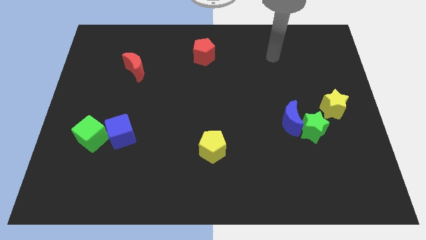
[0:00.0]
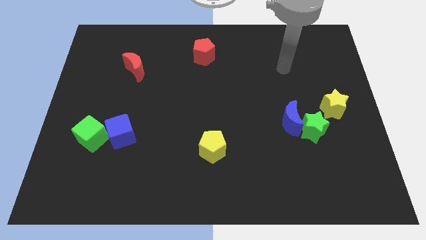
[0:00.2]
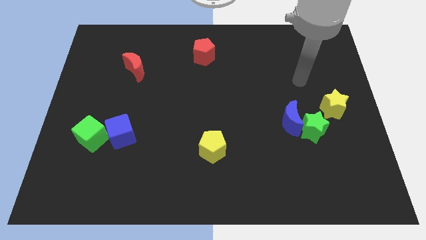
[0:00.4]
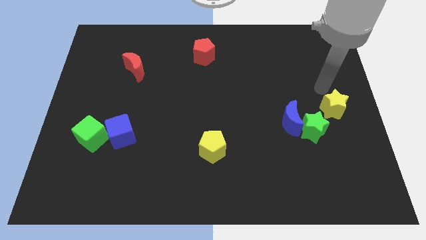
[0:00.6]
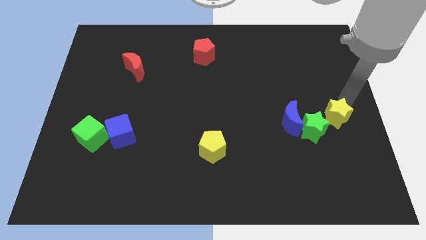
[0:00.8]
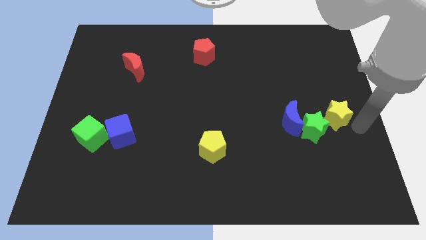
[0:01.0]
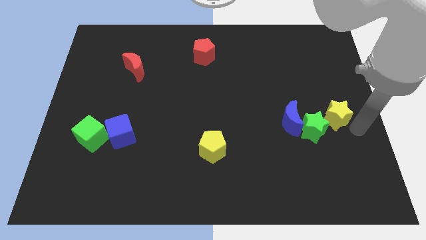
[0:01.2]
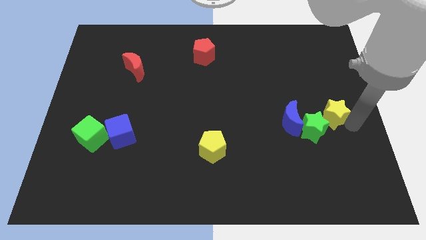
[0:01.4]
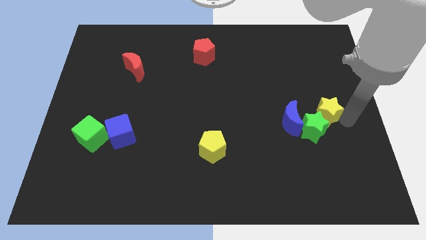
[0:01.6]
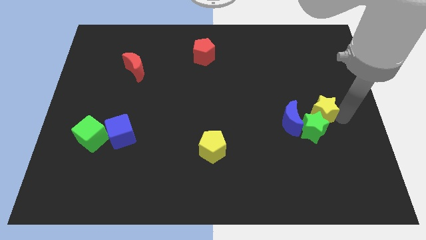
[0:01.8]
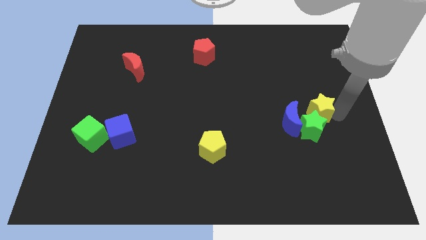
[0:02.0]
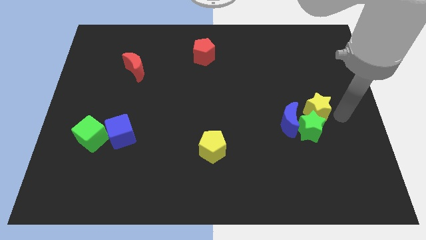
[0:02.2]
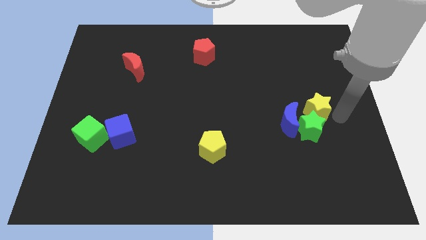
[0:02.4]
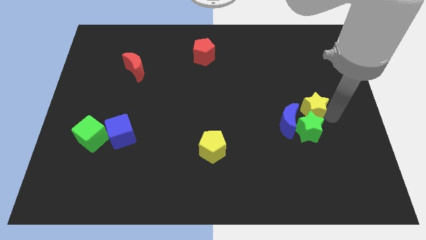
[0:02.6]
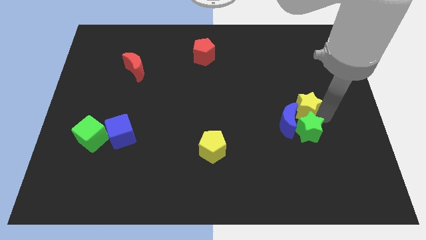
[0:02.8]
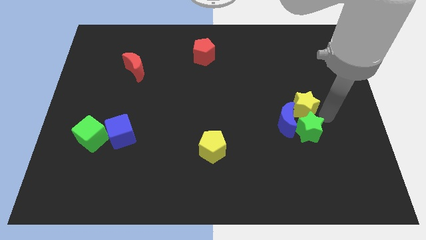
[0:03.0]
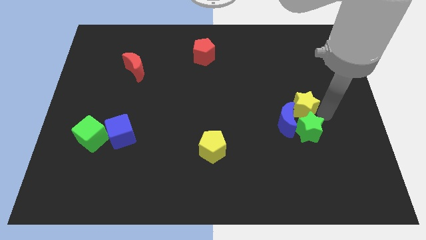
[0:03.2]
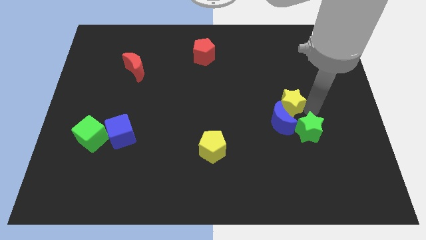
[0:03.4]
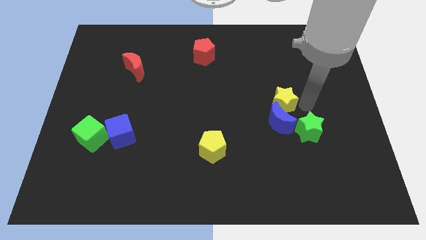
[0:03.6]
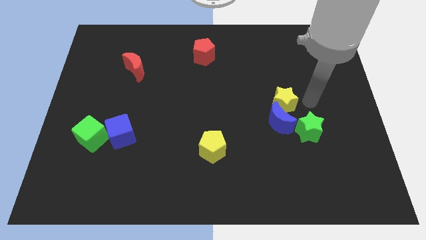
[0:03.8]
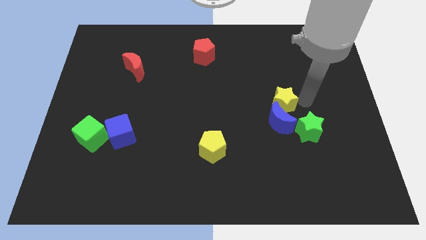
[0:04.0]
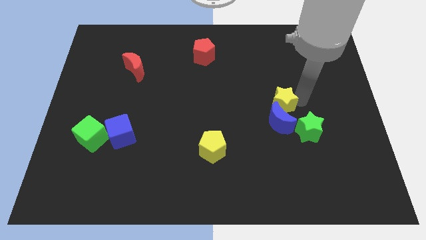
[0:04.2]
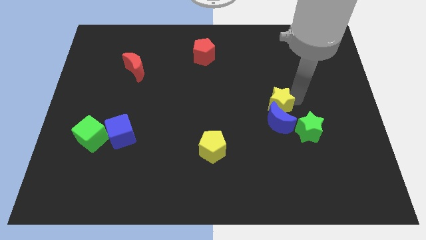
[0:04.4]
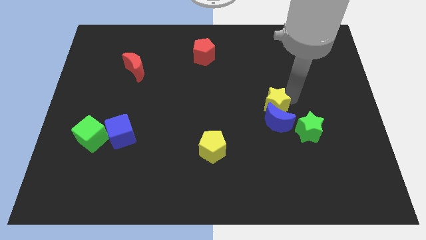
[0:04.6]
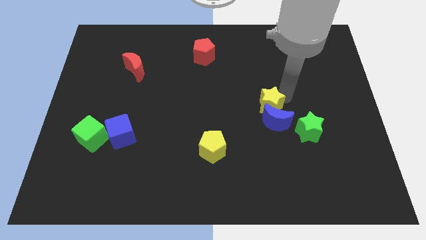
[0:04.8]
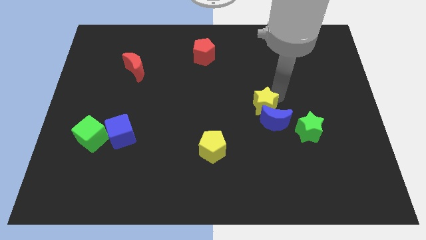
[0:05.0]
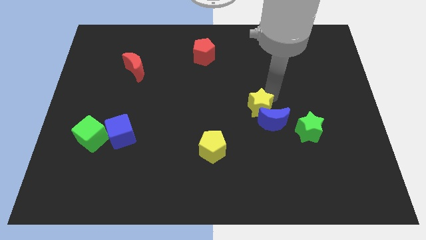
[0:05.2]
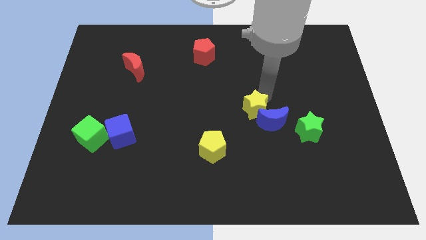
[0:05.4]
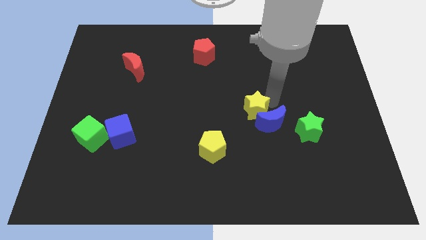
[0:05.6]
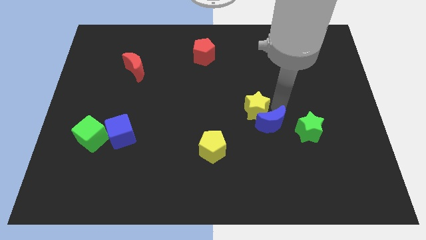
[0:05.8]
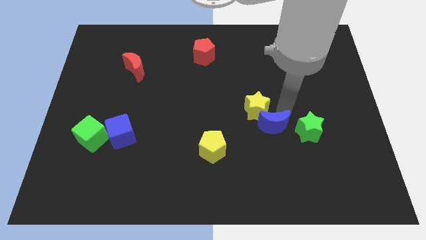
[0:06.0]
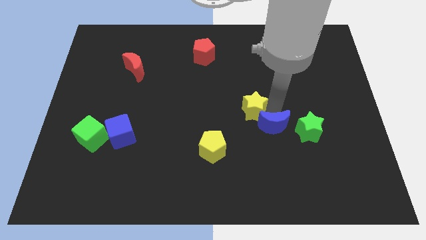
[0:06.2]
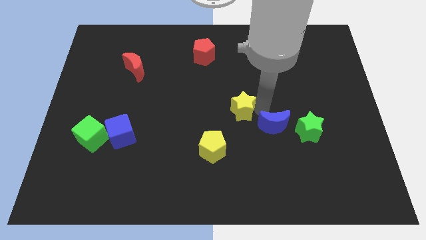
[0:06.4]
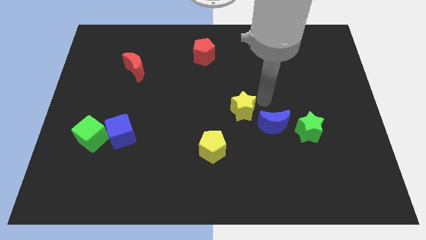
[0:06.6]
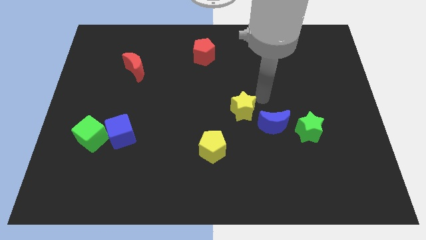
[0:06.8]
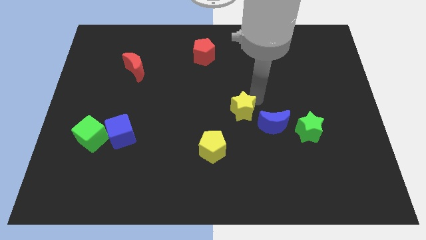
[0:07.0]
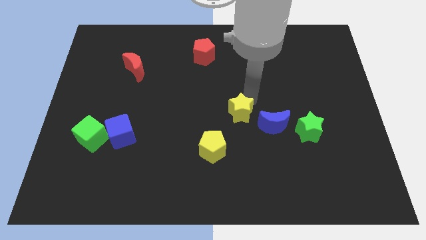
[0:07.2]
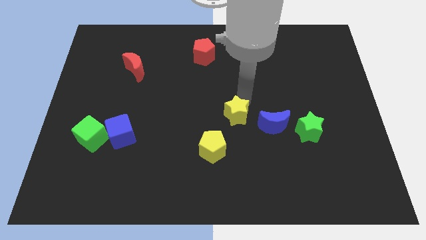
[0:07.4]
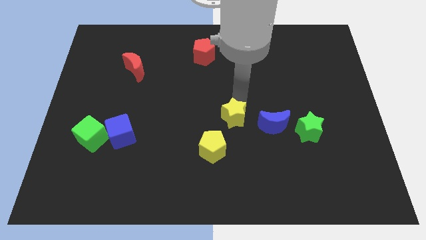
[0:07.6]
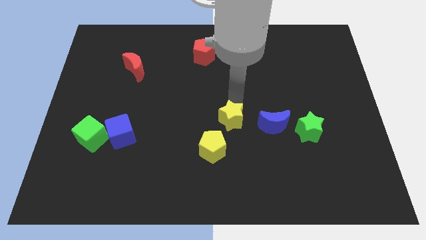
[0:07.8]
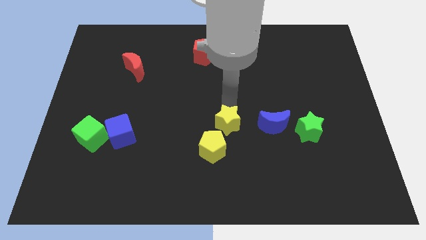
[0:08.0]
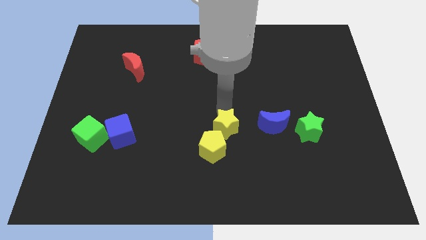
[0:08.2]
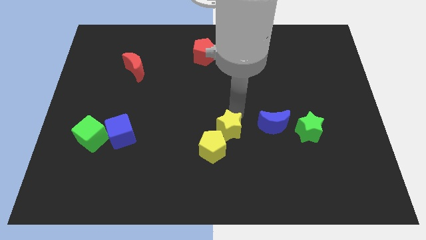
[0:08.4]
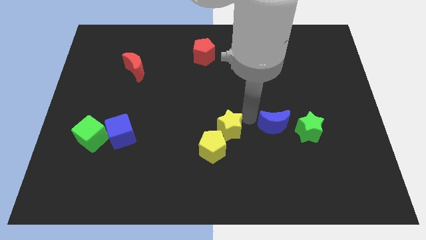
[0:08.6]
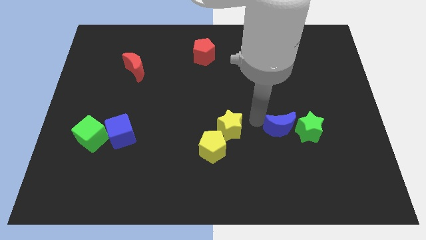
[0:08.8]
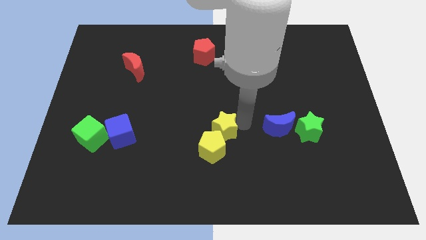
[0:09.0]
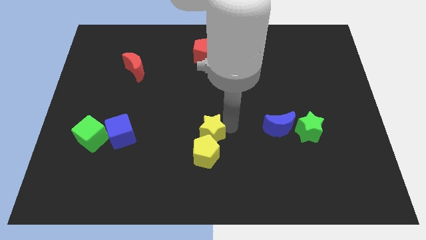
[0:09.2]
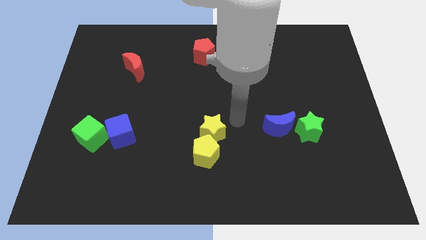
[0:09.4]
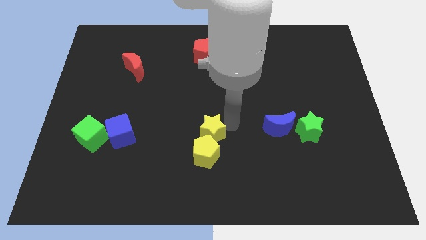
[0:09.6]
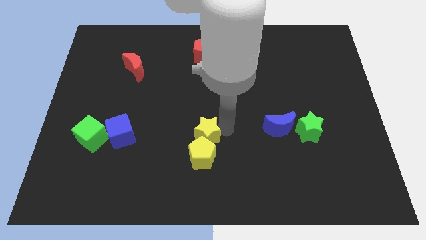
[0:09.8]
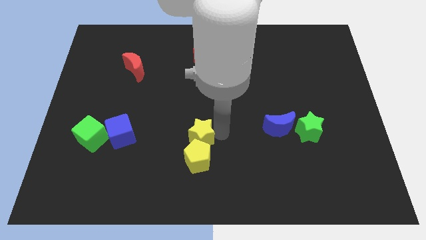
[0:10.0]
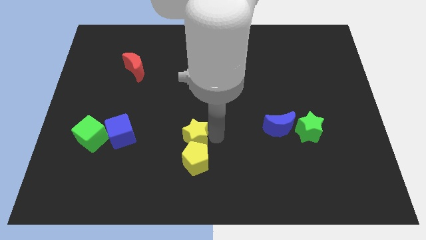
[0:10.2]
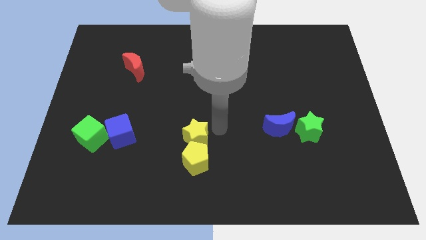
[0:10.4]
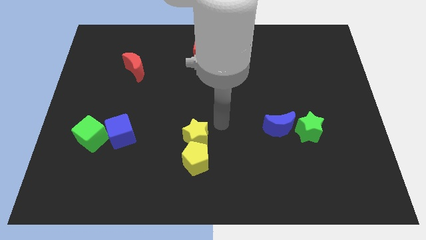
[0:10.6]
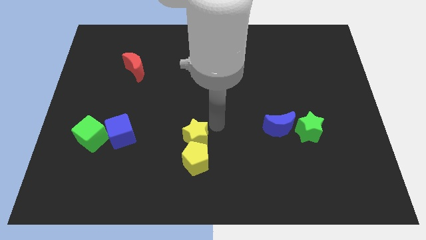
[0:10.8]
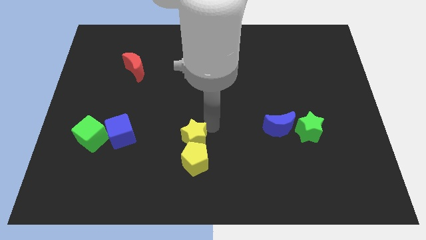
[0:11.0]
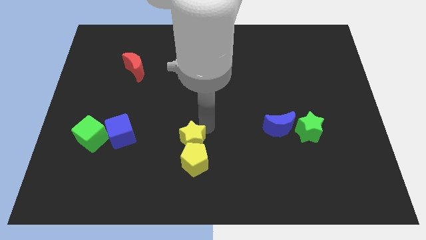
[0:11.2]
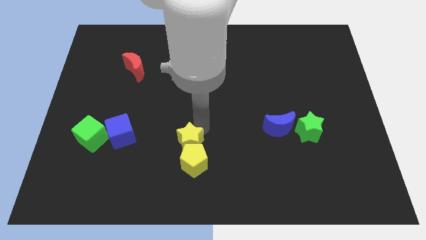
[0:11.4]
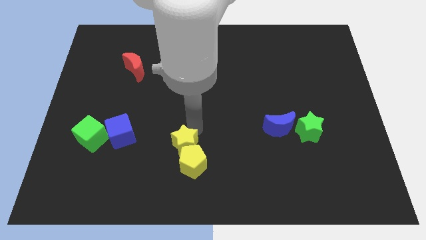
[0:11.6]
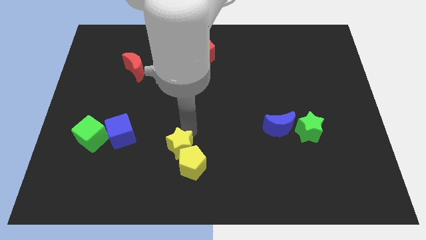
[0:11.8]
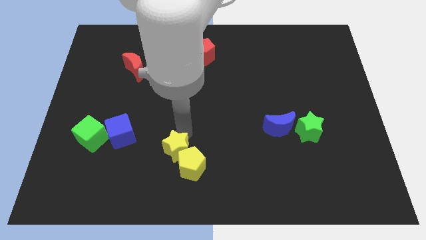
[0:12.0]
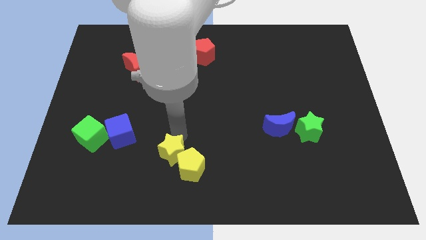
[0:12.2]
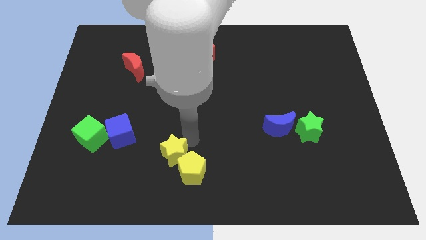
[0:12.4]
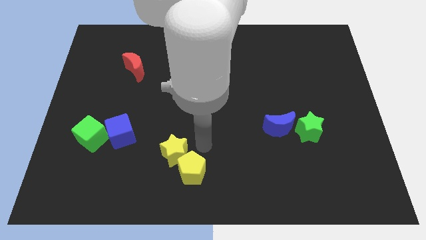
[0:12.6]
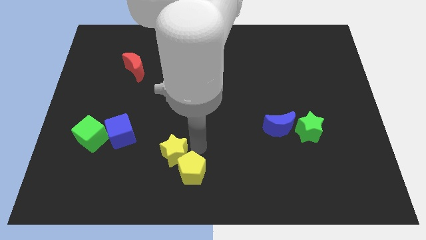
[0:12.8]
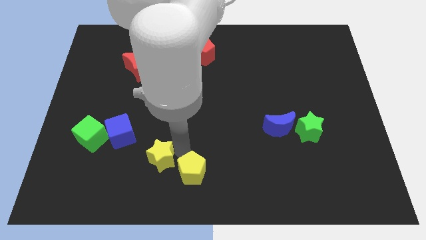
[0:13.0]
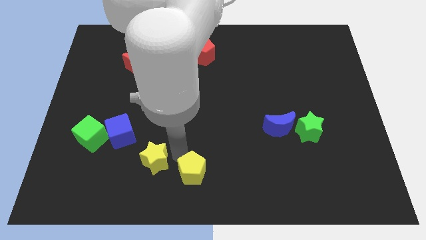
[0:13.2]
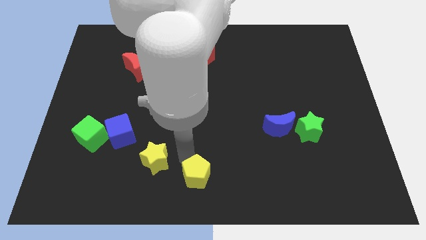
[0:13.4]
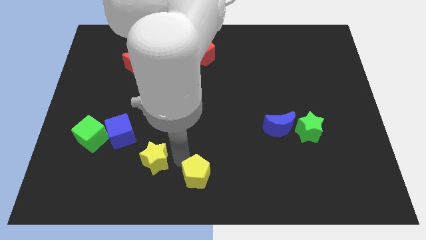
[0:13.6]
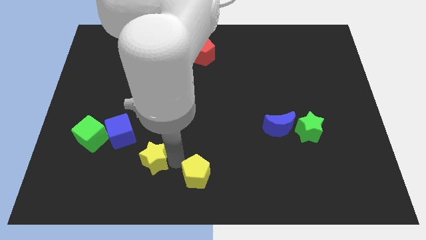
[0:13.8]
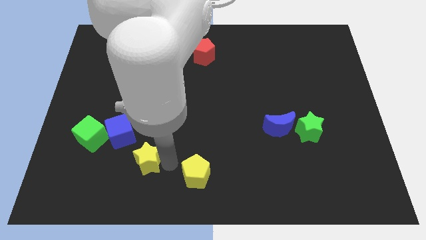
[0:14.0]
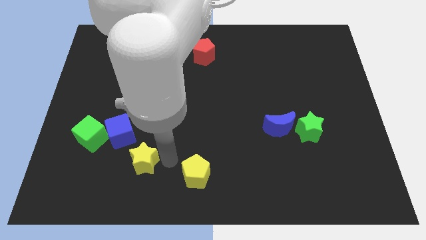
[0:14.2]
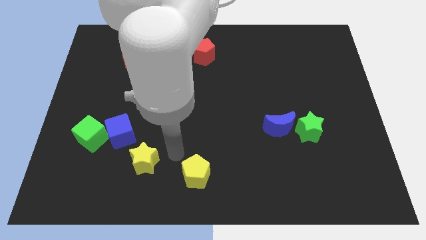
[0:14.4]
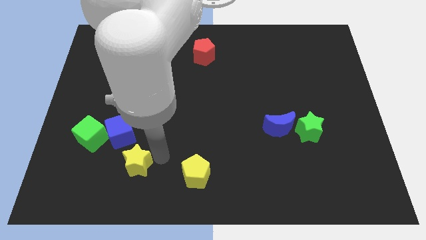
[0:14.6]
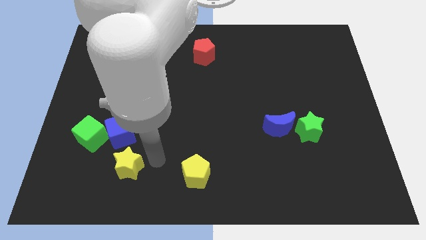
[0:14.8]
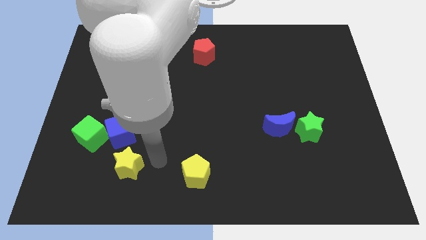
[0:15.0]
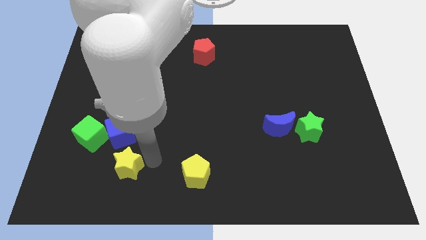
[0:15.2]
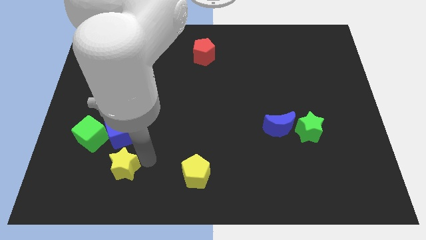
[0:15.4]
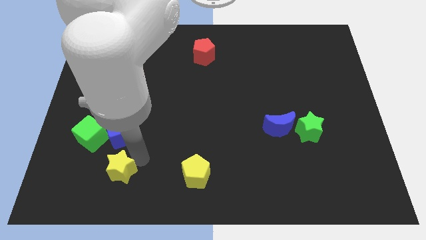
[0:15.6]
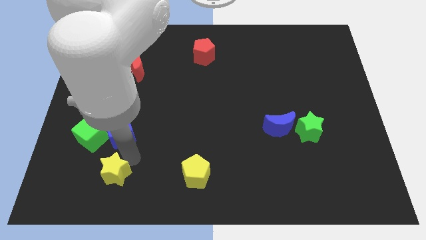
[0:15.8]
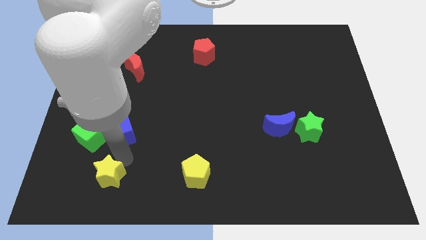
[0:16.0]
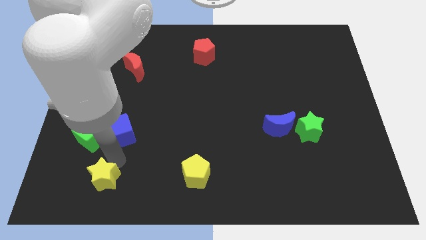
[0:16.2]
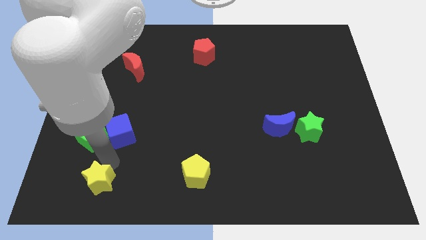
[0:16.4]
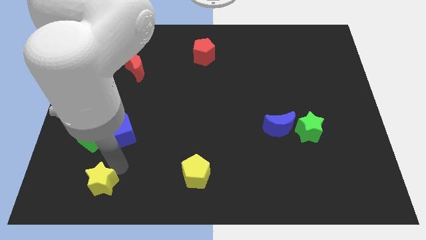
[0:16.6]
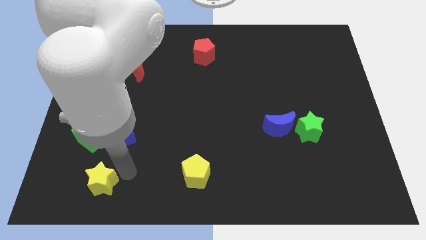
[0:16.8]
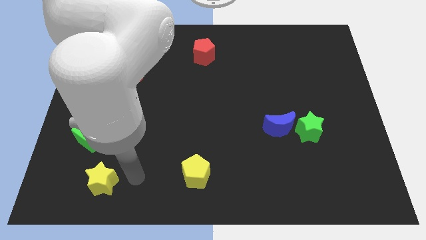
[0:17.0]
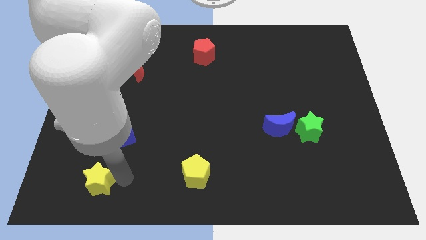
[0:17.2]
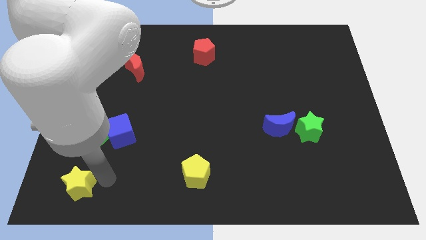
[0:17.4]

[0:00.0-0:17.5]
slide the yellow star to the bottom left
